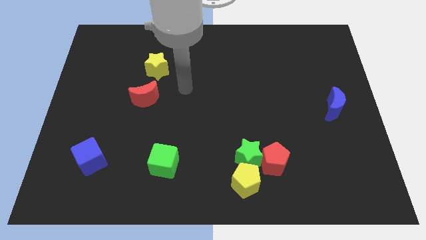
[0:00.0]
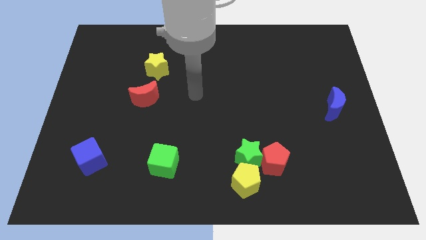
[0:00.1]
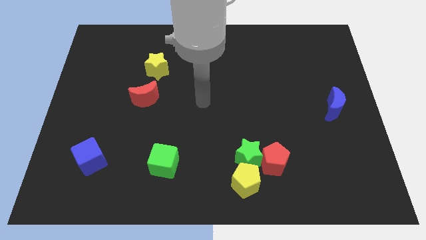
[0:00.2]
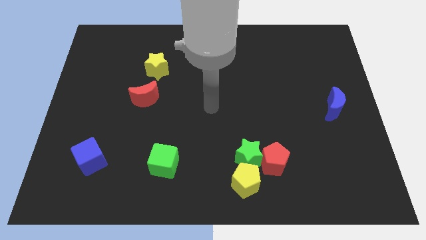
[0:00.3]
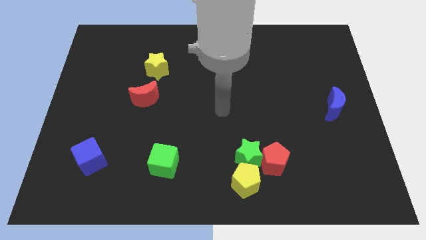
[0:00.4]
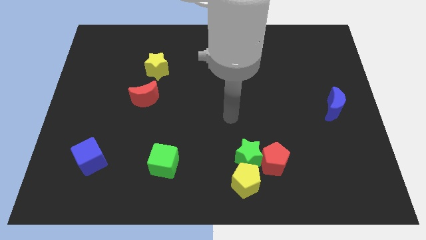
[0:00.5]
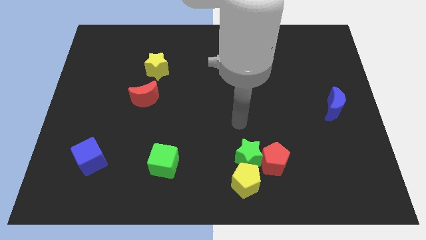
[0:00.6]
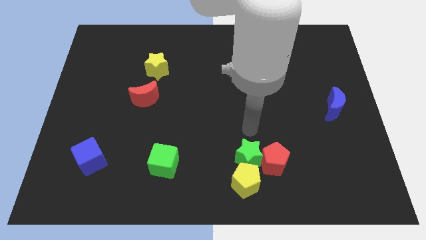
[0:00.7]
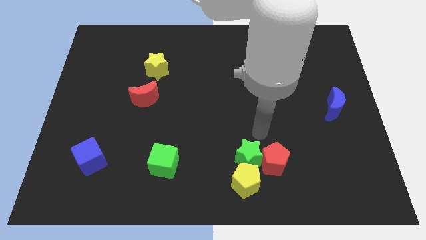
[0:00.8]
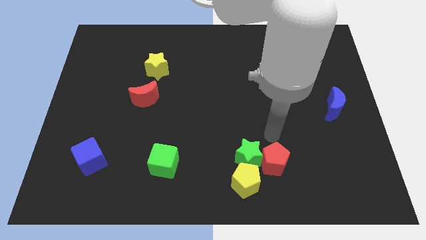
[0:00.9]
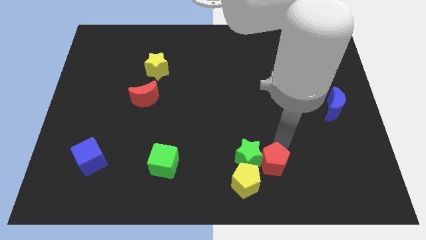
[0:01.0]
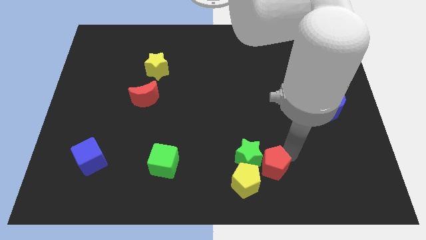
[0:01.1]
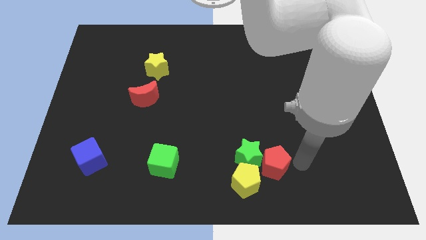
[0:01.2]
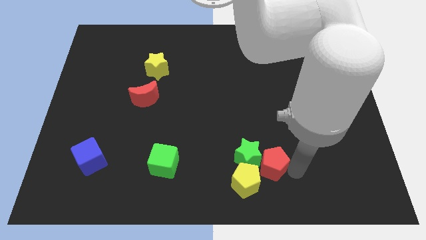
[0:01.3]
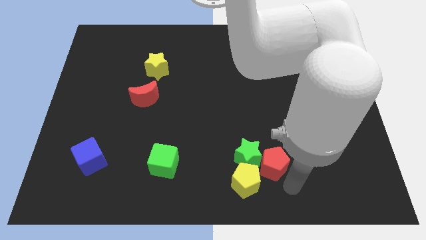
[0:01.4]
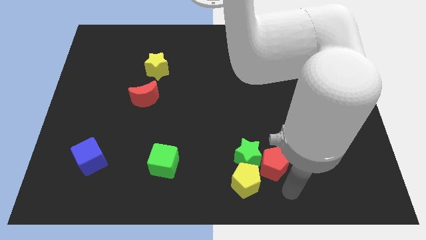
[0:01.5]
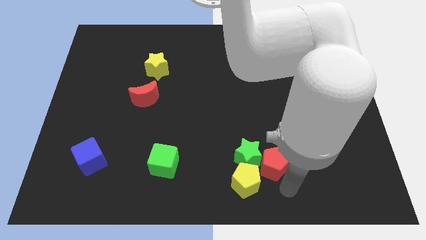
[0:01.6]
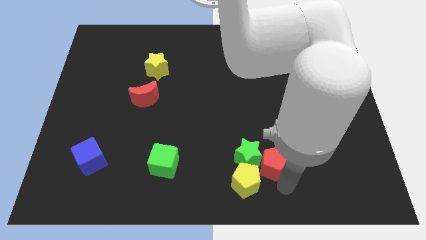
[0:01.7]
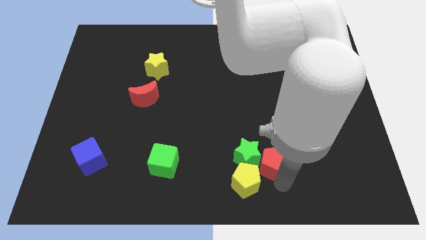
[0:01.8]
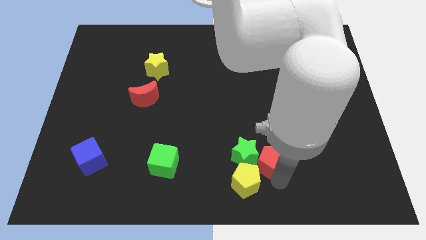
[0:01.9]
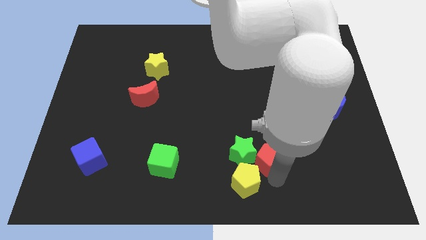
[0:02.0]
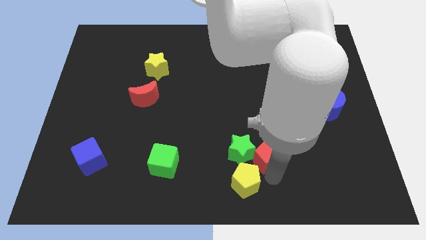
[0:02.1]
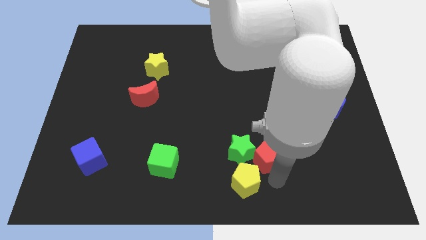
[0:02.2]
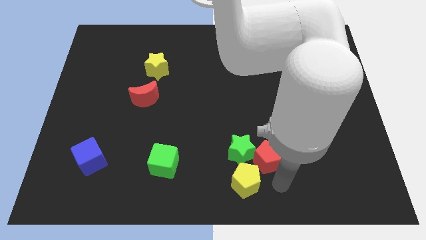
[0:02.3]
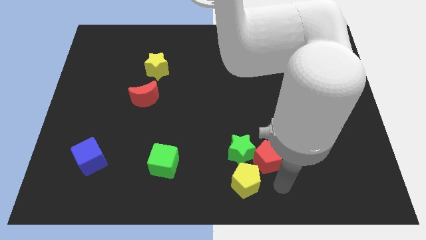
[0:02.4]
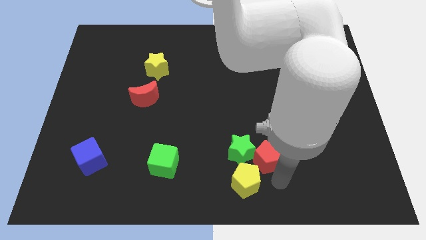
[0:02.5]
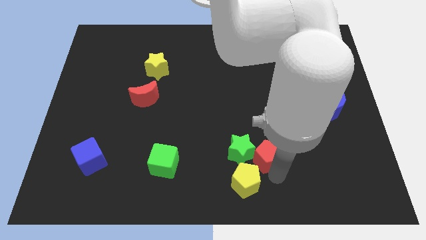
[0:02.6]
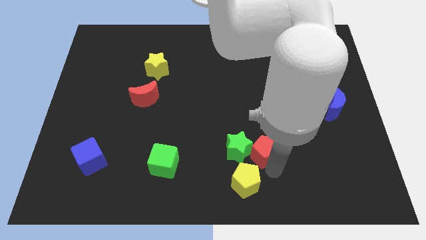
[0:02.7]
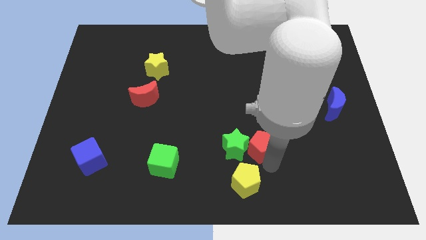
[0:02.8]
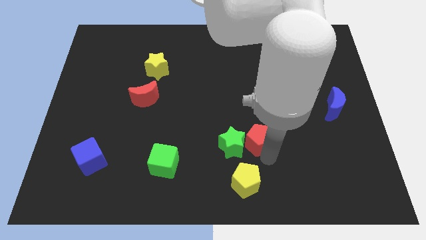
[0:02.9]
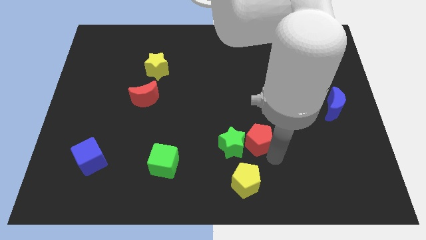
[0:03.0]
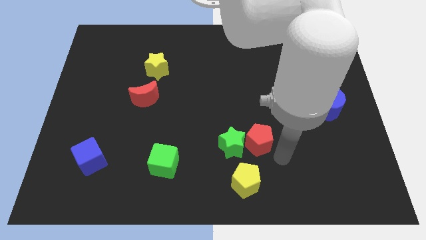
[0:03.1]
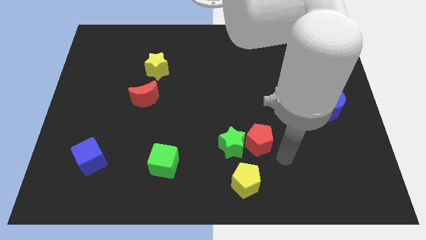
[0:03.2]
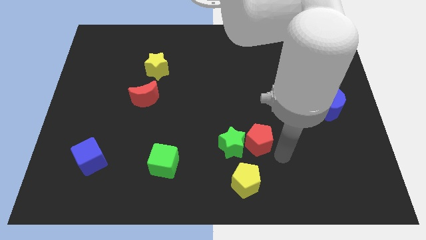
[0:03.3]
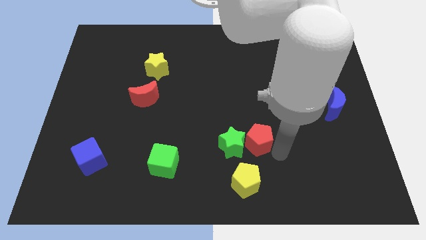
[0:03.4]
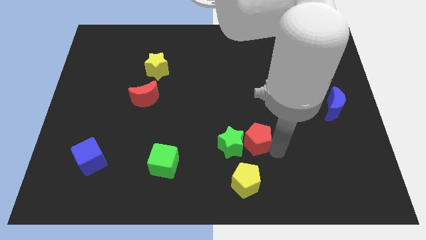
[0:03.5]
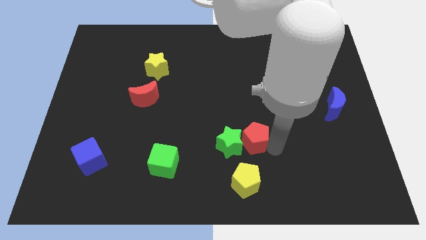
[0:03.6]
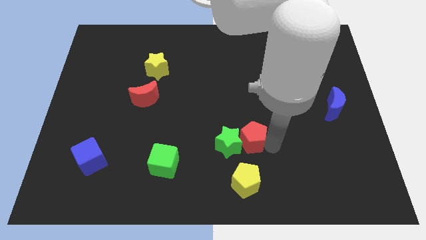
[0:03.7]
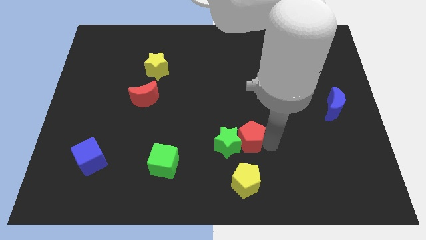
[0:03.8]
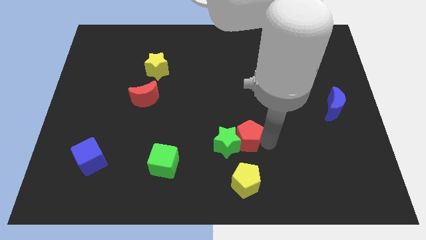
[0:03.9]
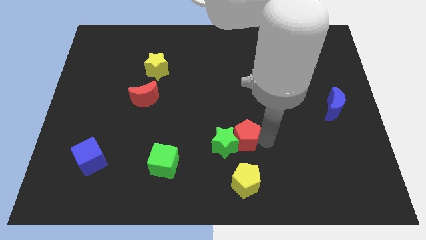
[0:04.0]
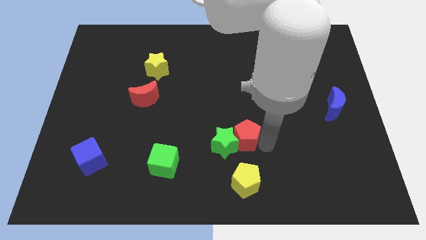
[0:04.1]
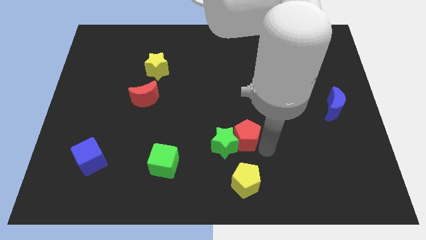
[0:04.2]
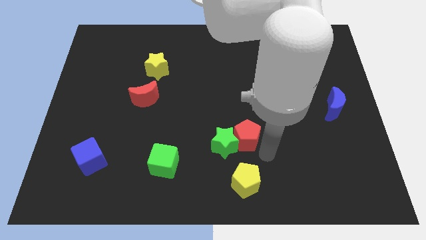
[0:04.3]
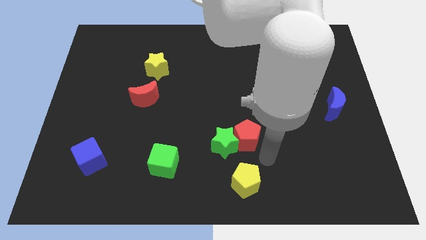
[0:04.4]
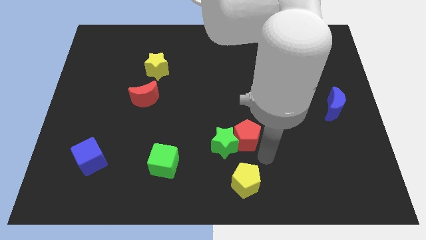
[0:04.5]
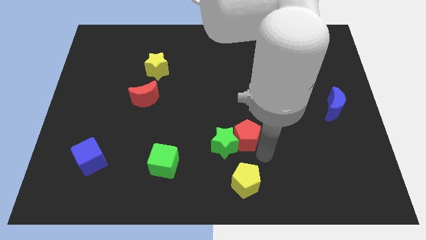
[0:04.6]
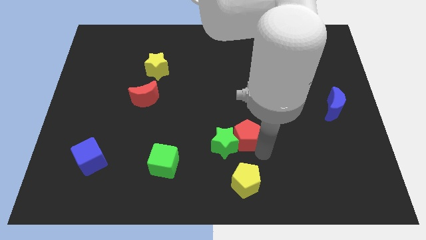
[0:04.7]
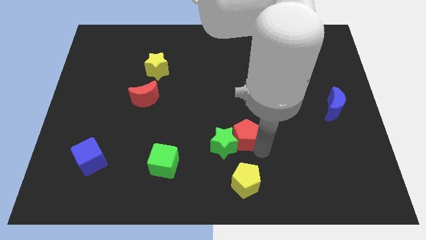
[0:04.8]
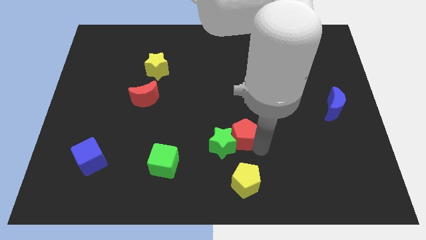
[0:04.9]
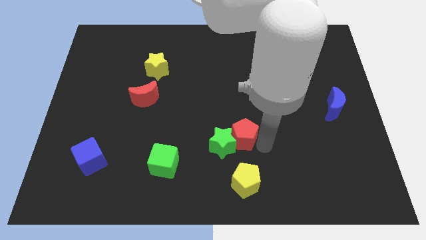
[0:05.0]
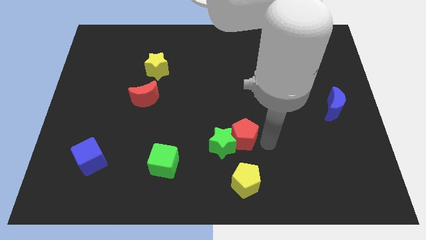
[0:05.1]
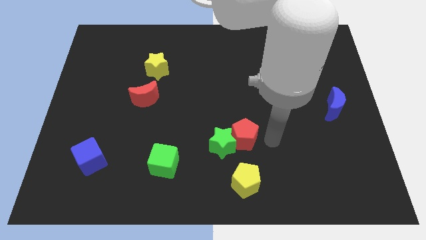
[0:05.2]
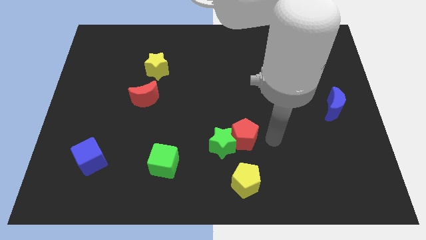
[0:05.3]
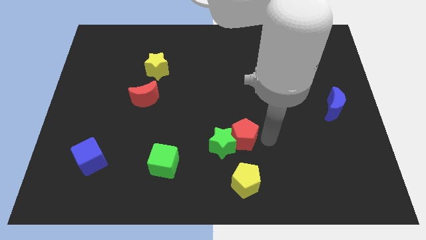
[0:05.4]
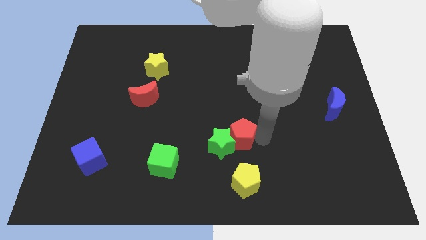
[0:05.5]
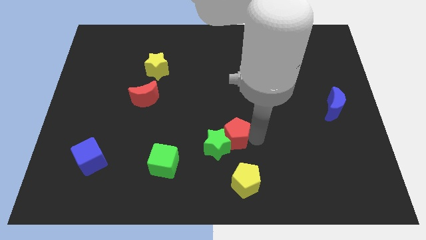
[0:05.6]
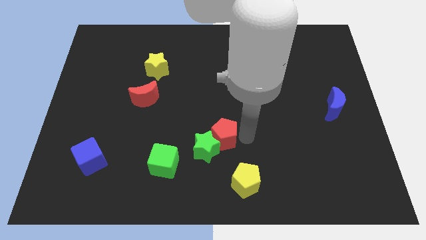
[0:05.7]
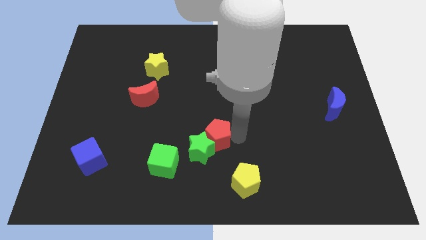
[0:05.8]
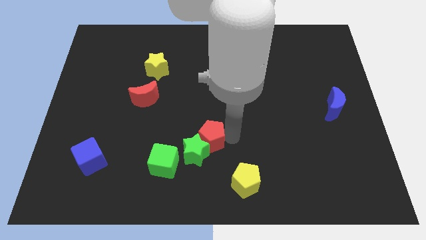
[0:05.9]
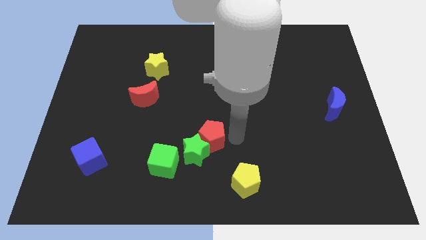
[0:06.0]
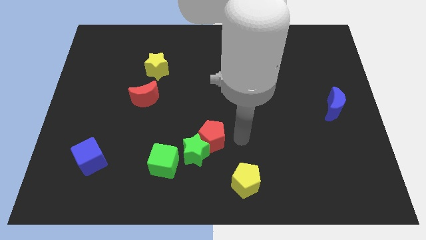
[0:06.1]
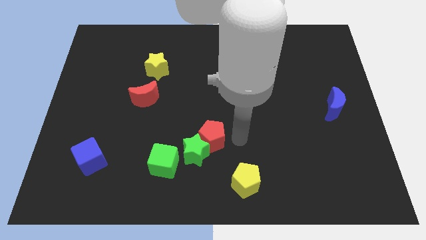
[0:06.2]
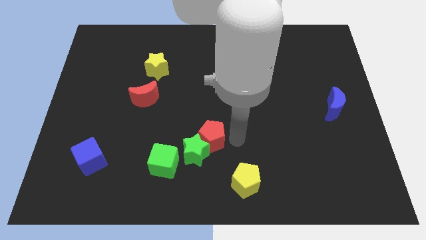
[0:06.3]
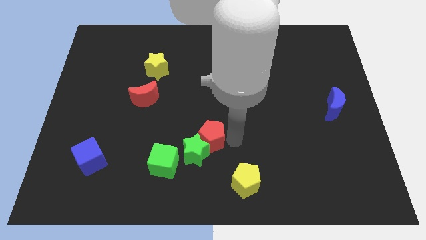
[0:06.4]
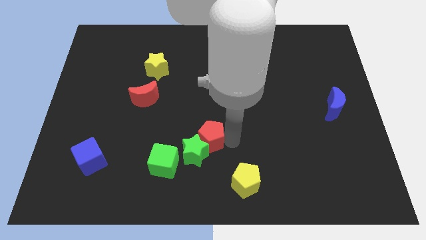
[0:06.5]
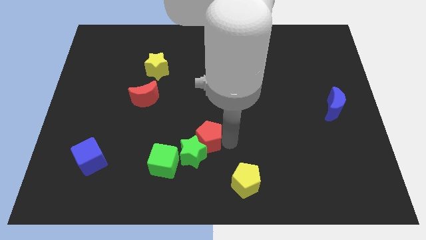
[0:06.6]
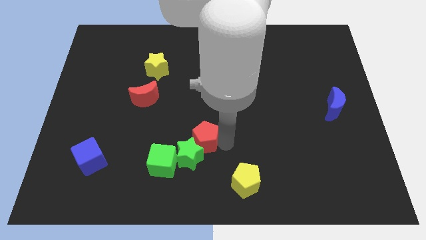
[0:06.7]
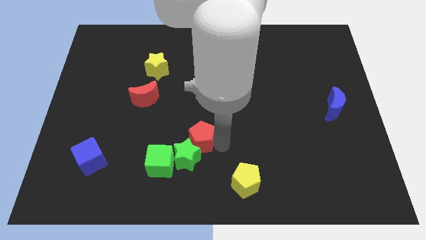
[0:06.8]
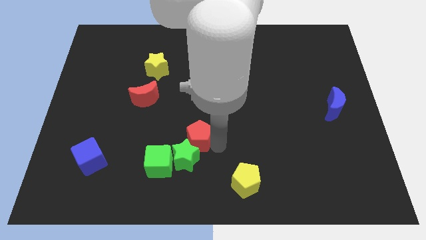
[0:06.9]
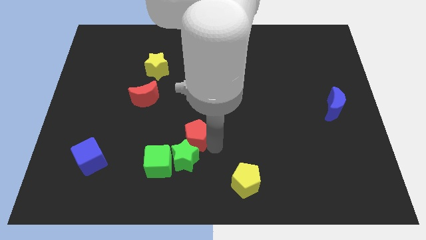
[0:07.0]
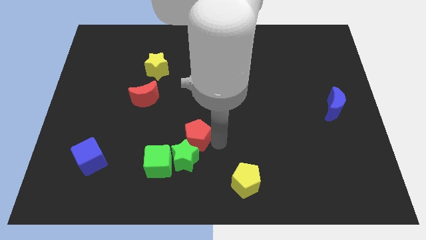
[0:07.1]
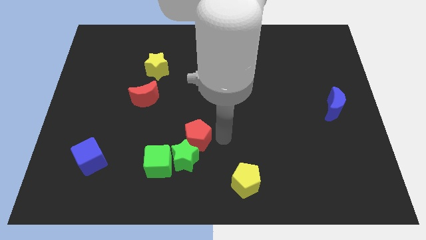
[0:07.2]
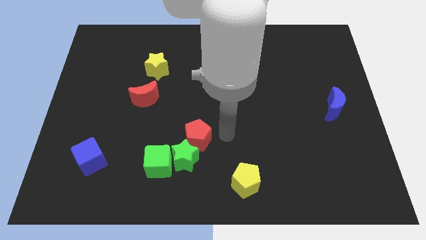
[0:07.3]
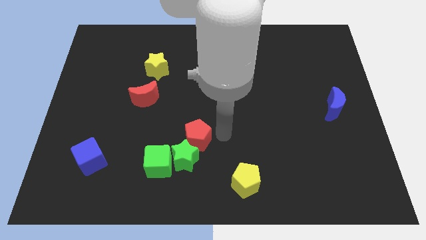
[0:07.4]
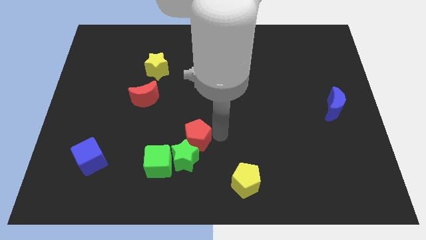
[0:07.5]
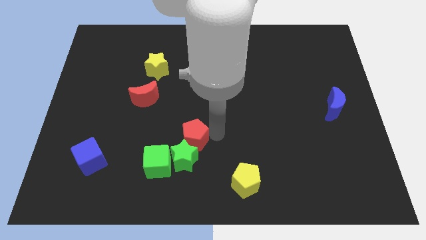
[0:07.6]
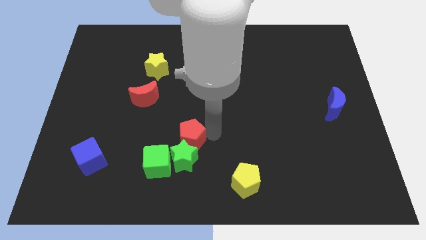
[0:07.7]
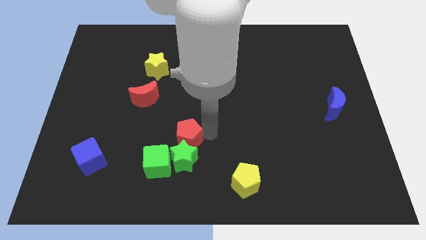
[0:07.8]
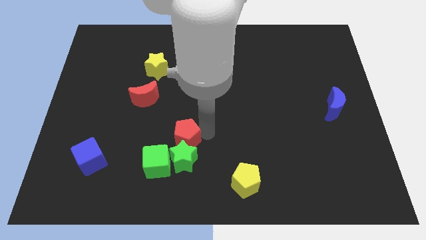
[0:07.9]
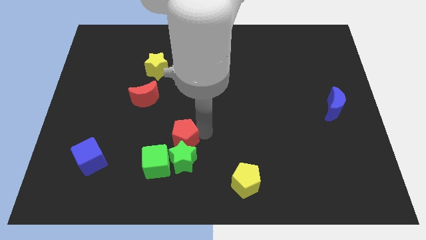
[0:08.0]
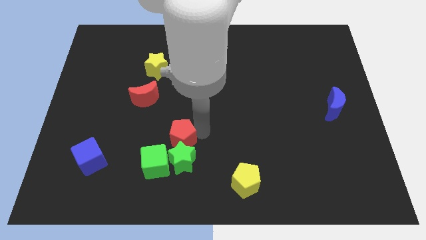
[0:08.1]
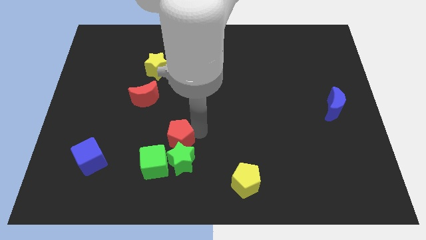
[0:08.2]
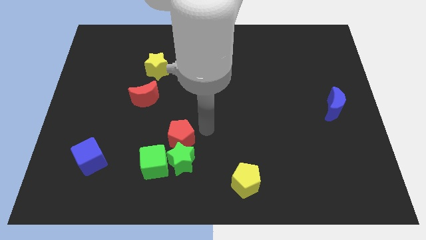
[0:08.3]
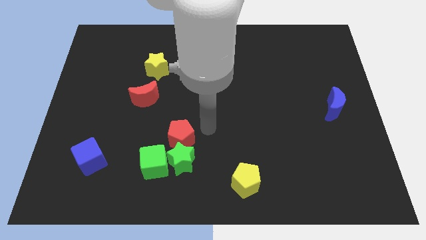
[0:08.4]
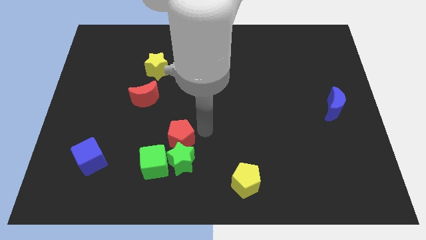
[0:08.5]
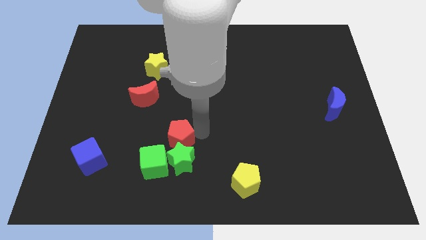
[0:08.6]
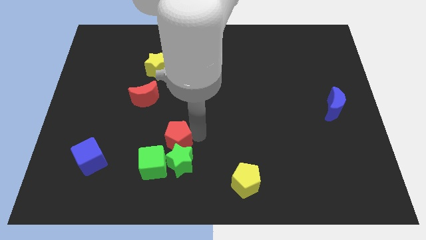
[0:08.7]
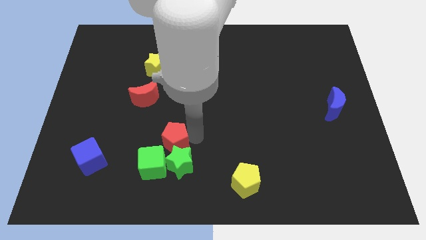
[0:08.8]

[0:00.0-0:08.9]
move the red pentagon to the left
